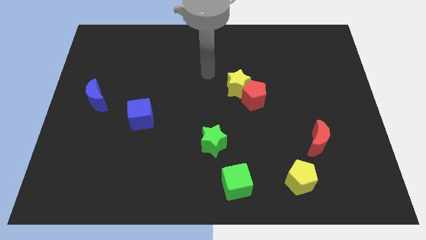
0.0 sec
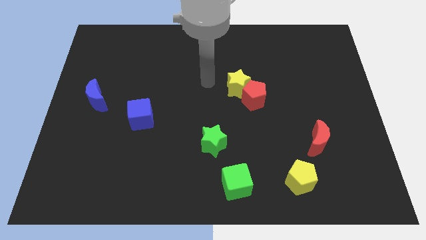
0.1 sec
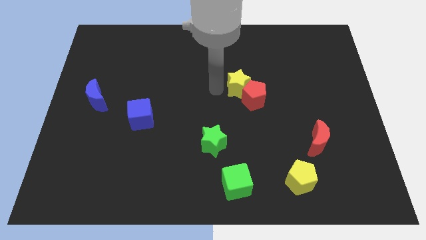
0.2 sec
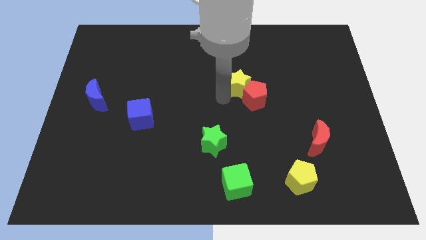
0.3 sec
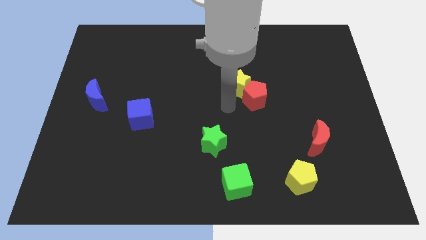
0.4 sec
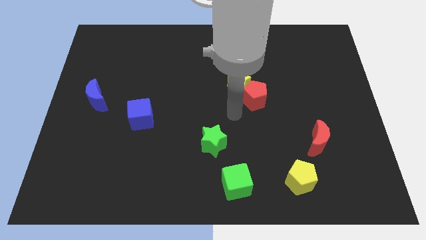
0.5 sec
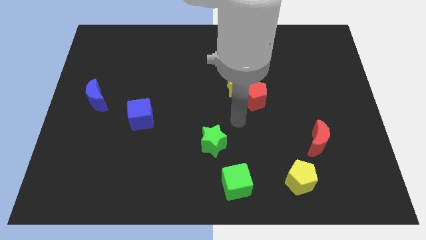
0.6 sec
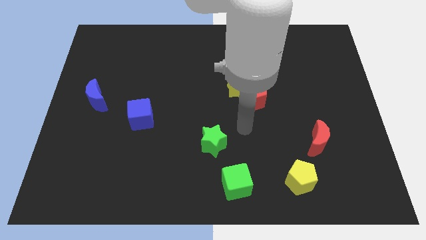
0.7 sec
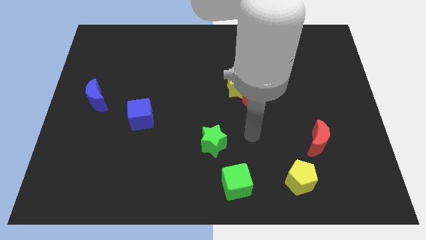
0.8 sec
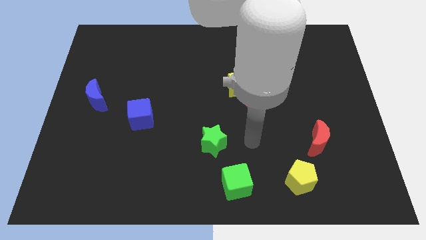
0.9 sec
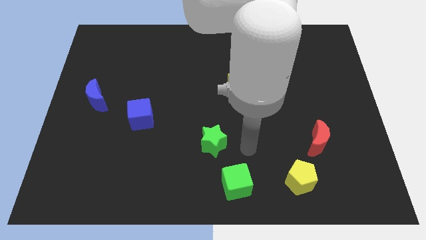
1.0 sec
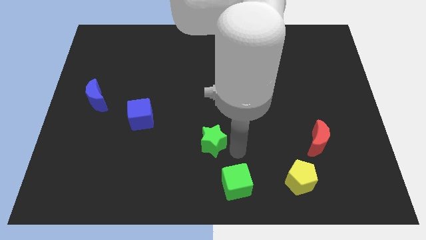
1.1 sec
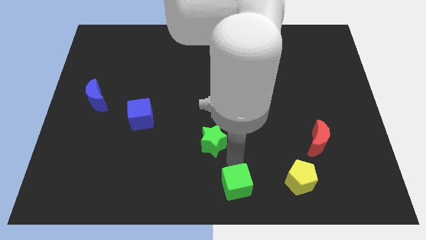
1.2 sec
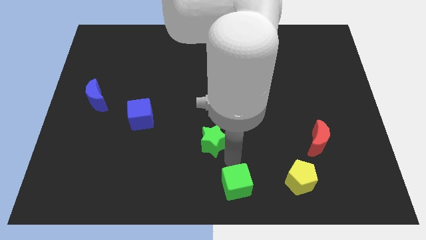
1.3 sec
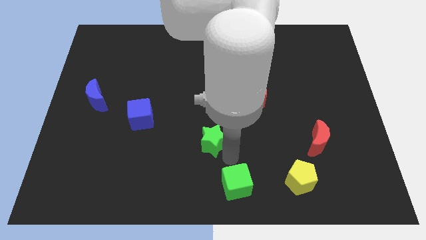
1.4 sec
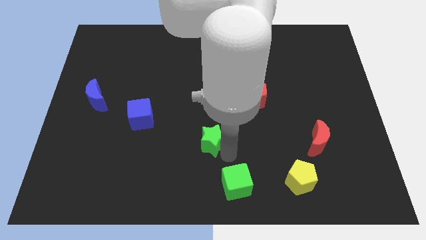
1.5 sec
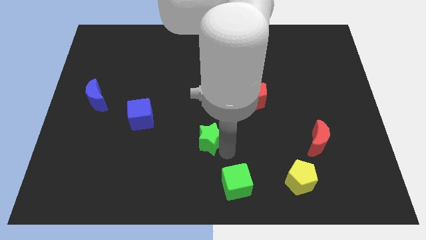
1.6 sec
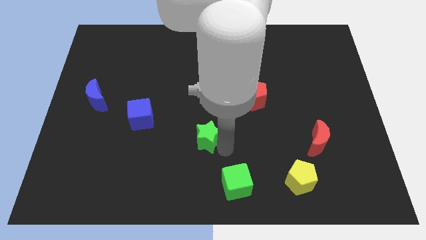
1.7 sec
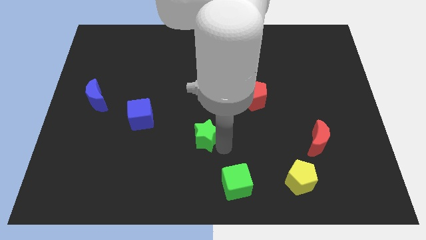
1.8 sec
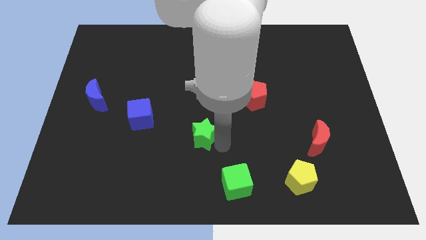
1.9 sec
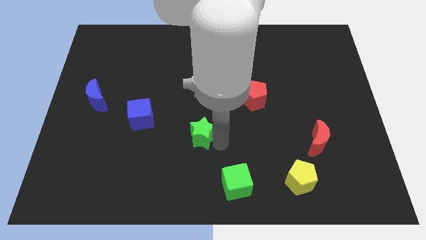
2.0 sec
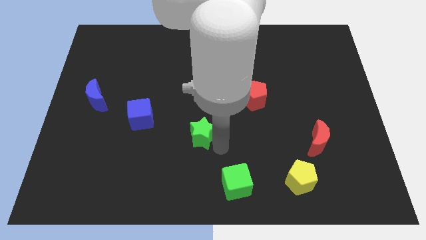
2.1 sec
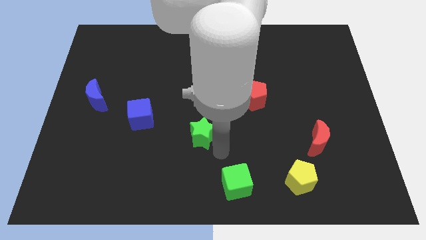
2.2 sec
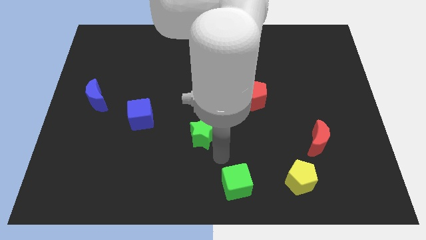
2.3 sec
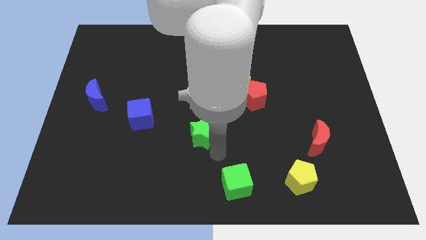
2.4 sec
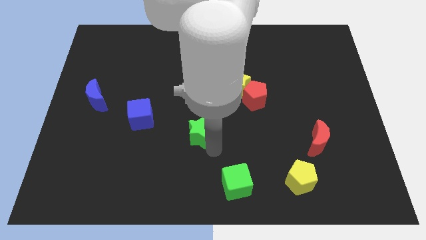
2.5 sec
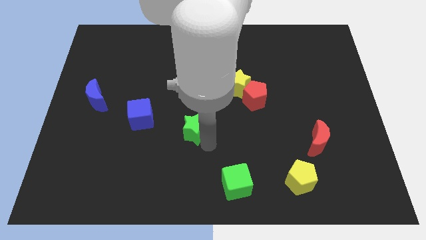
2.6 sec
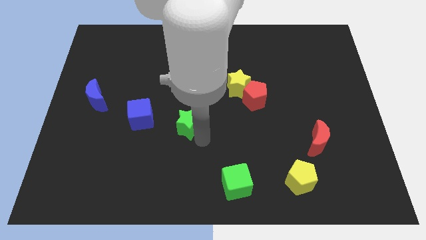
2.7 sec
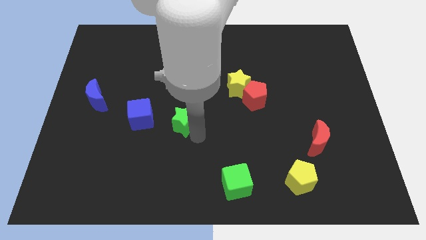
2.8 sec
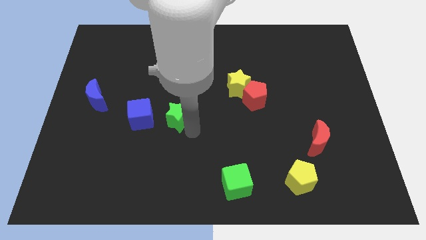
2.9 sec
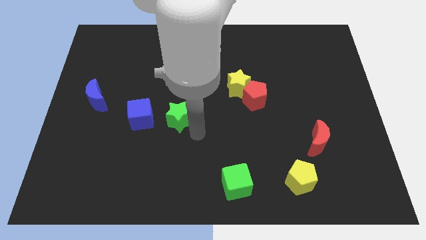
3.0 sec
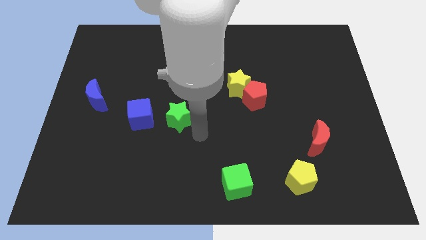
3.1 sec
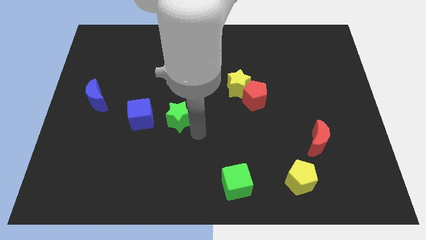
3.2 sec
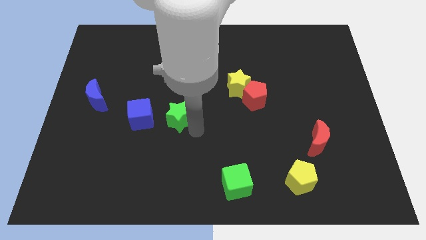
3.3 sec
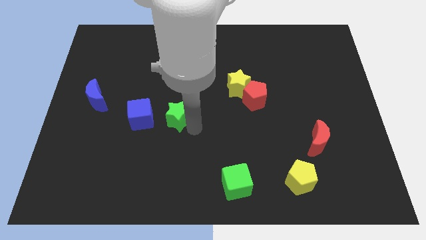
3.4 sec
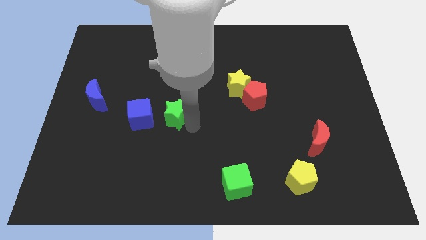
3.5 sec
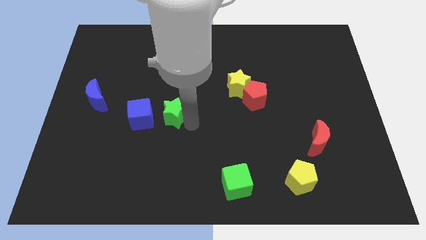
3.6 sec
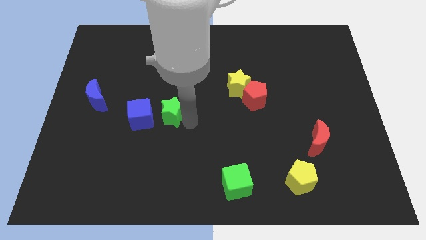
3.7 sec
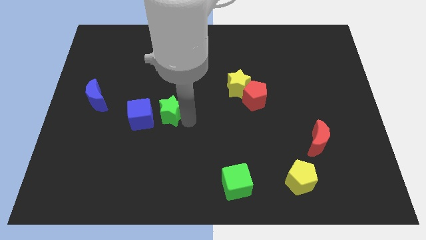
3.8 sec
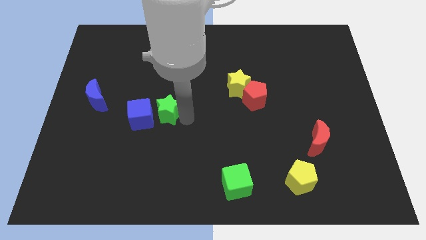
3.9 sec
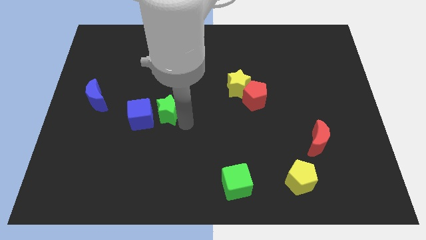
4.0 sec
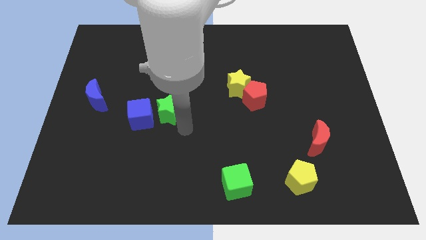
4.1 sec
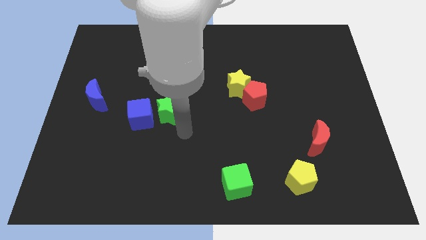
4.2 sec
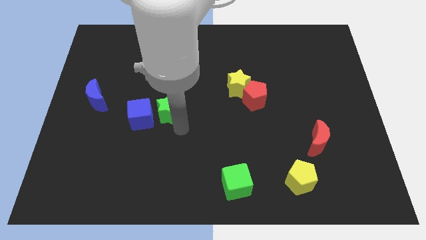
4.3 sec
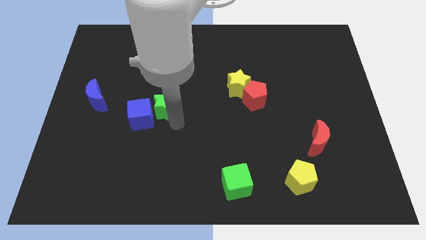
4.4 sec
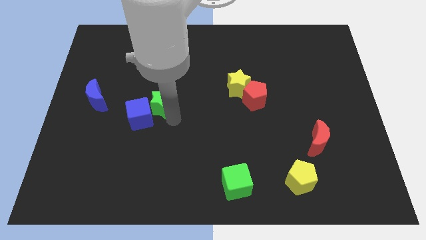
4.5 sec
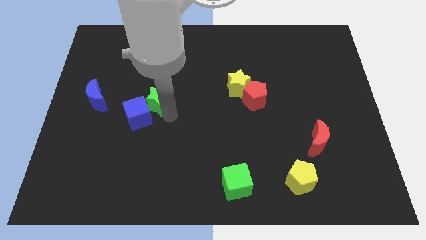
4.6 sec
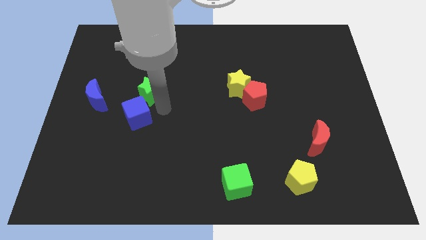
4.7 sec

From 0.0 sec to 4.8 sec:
push the green star up and left

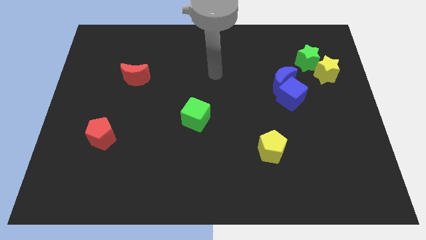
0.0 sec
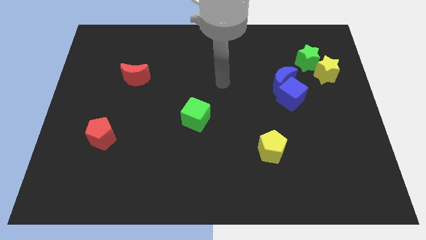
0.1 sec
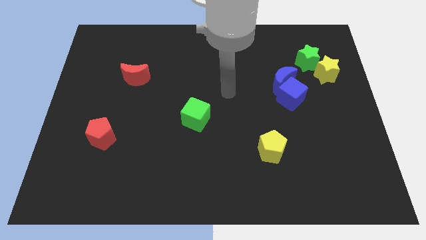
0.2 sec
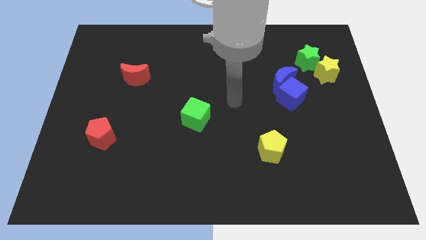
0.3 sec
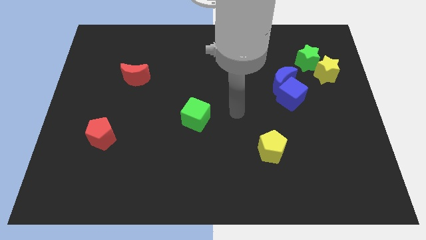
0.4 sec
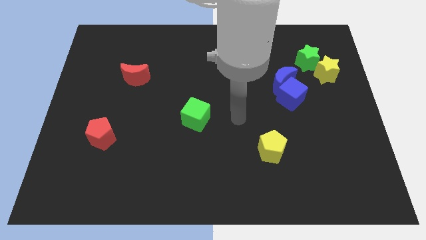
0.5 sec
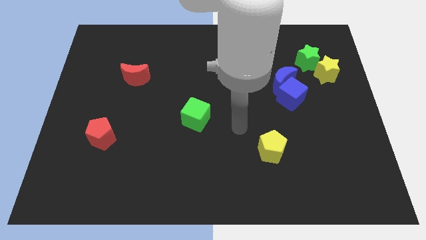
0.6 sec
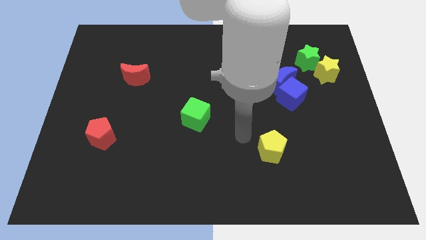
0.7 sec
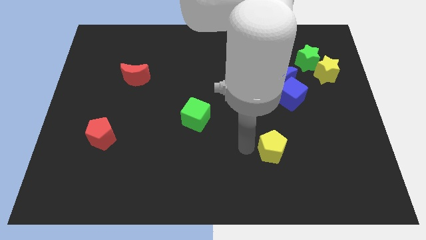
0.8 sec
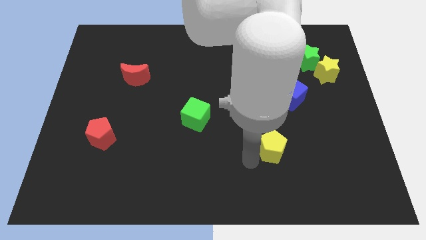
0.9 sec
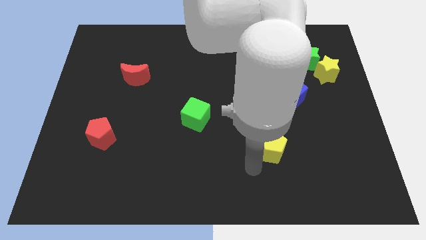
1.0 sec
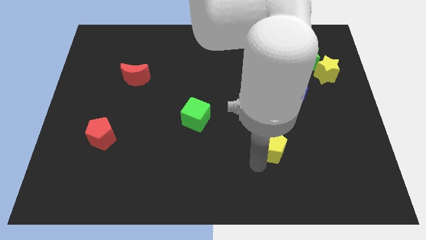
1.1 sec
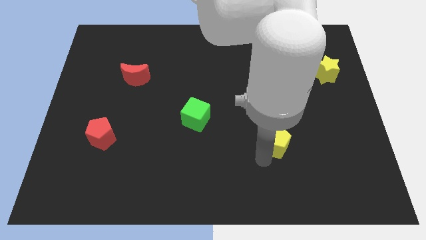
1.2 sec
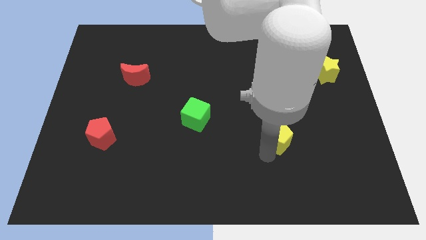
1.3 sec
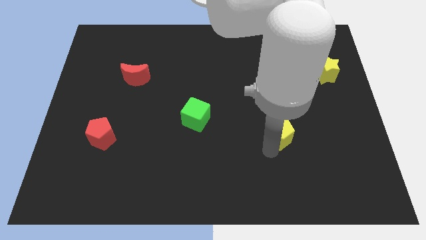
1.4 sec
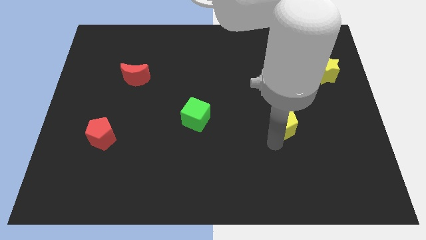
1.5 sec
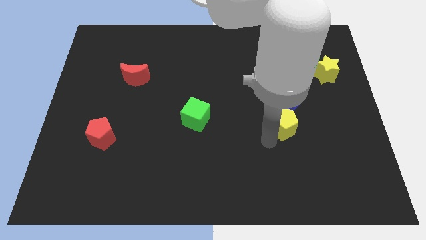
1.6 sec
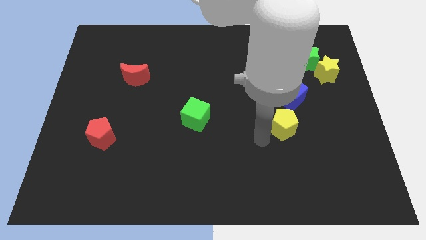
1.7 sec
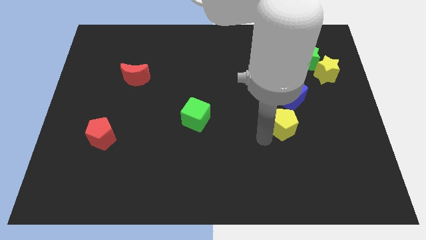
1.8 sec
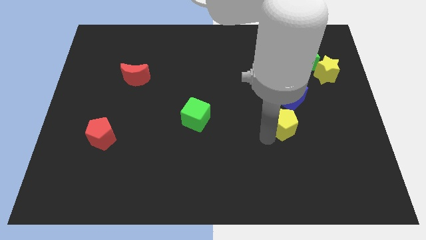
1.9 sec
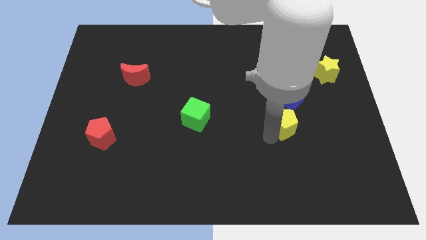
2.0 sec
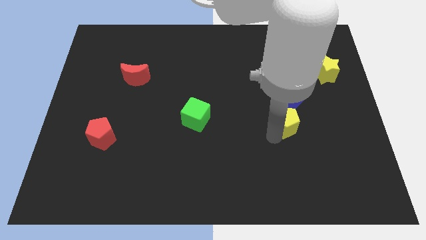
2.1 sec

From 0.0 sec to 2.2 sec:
slightly move the yellow pentagon upwards and to the right diagonally

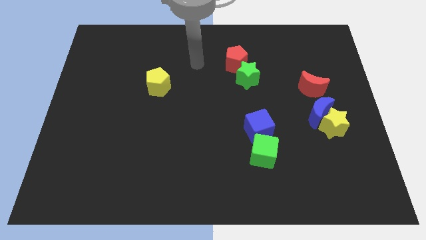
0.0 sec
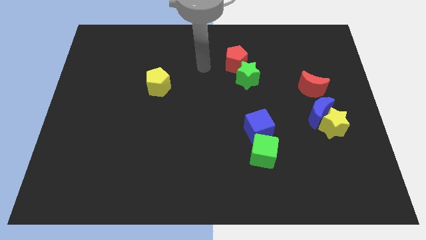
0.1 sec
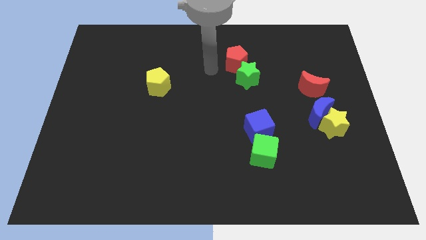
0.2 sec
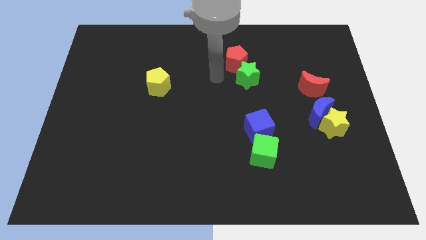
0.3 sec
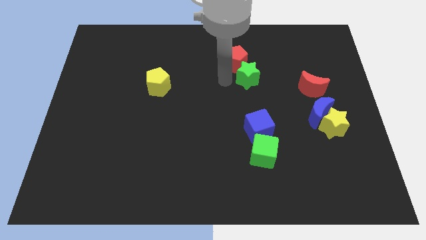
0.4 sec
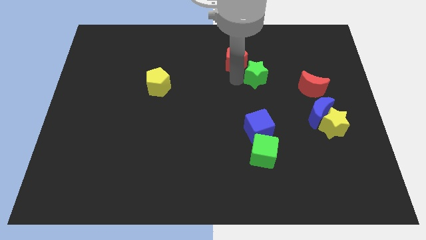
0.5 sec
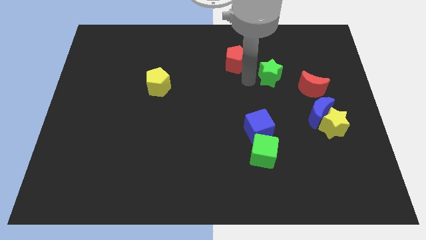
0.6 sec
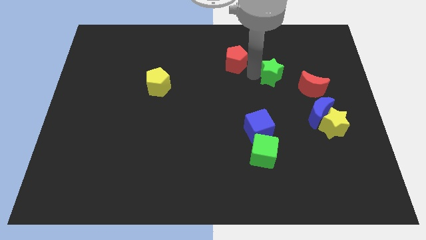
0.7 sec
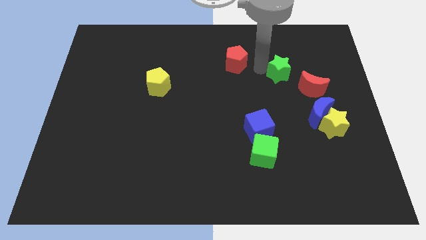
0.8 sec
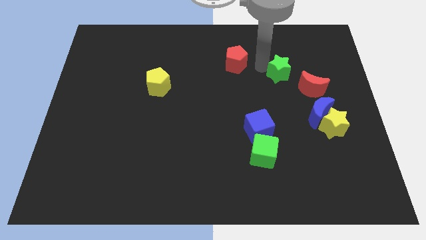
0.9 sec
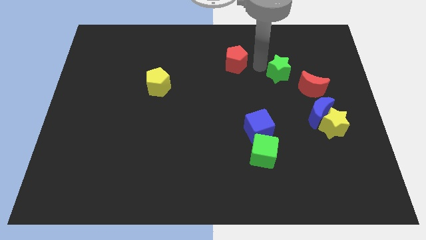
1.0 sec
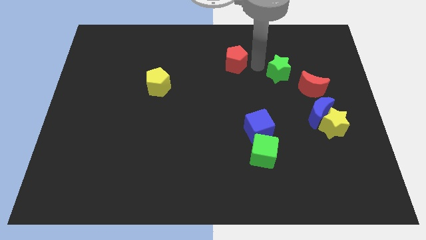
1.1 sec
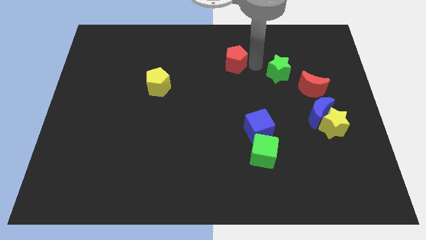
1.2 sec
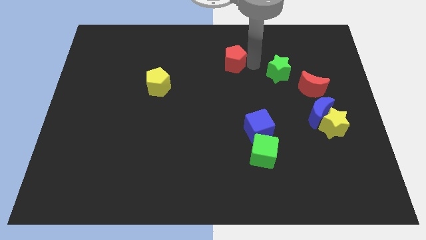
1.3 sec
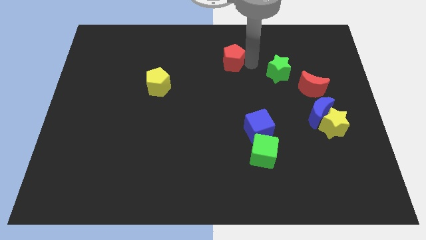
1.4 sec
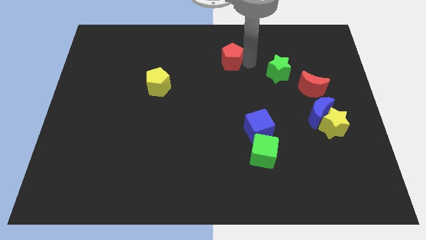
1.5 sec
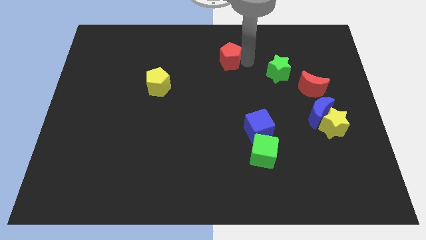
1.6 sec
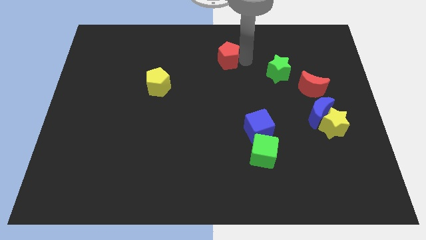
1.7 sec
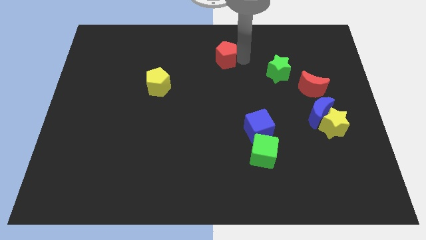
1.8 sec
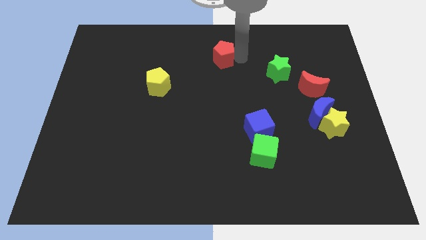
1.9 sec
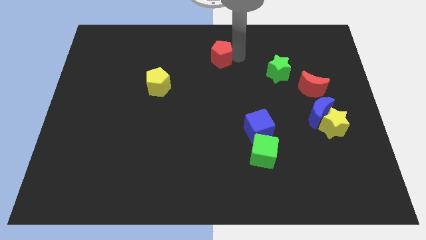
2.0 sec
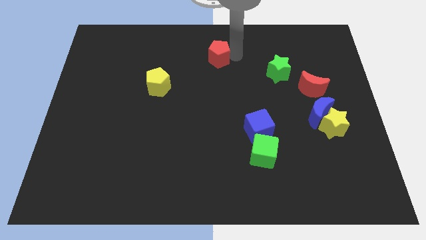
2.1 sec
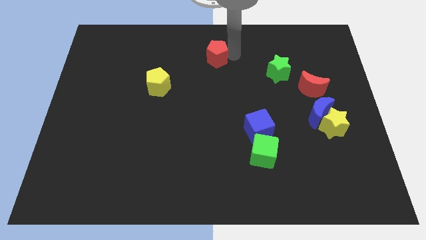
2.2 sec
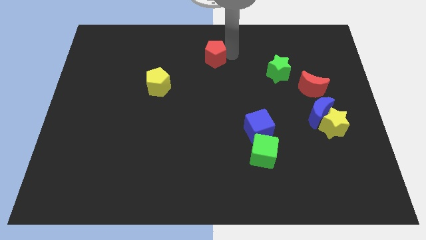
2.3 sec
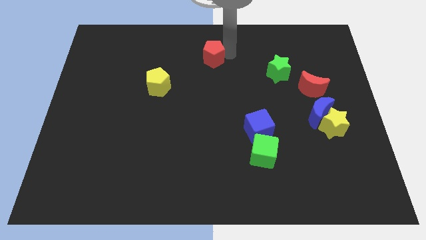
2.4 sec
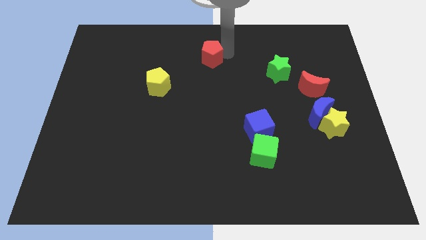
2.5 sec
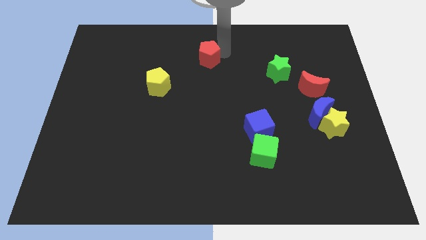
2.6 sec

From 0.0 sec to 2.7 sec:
move the red pentagon left a bit
